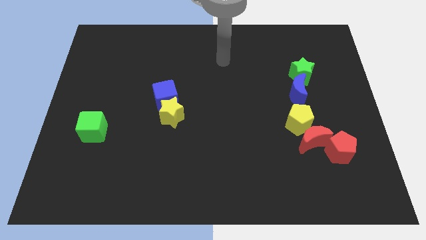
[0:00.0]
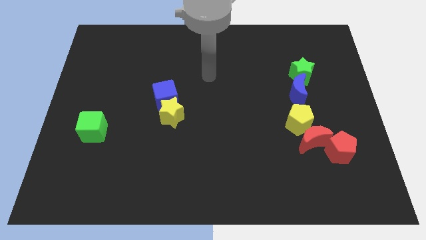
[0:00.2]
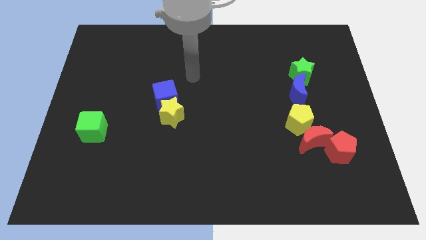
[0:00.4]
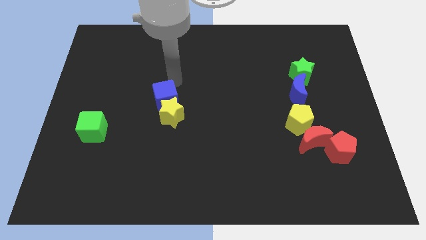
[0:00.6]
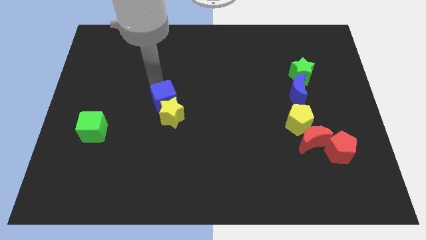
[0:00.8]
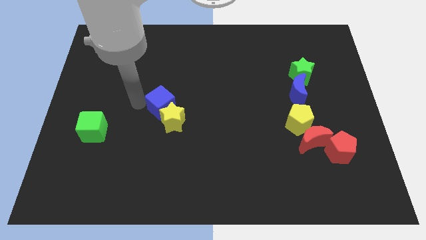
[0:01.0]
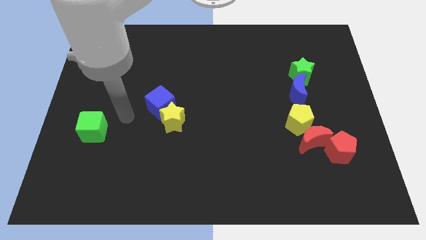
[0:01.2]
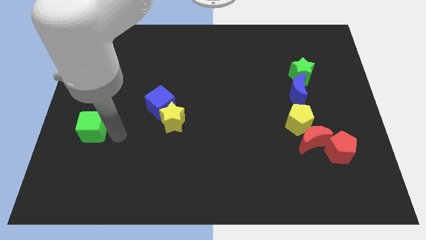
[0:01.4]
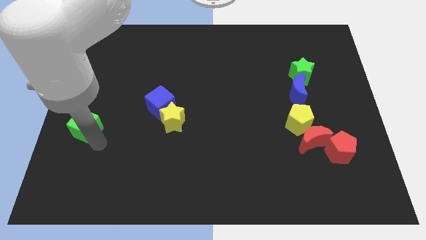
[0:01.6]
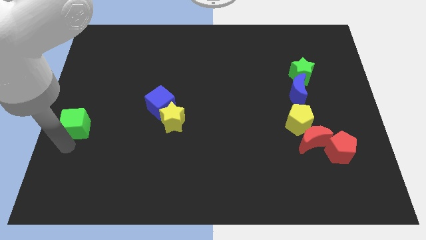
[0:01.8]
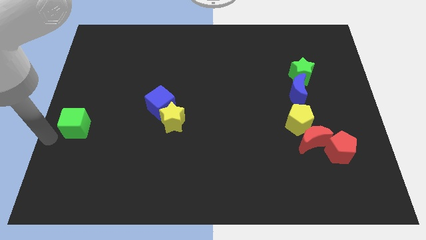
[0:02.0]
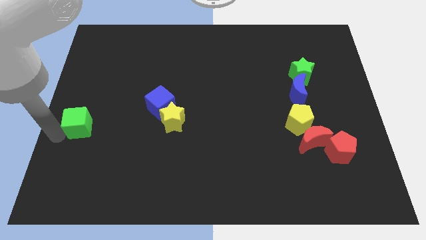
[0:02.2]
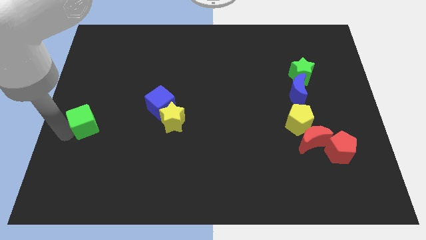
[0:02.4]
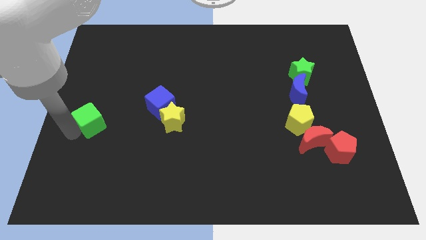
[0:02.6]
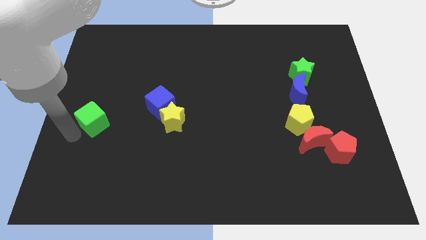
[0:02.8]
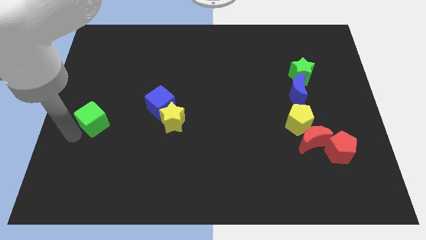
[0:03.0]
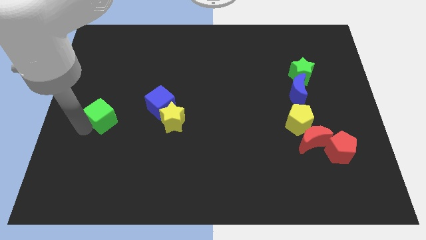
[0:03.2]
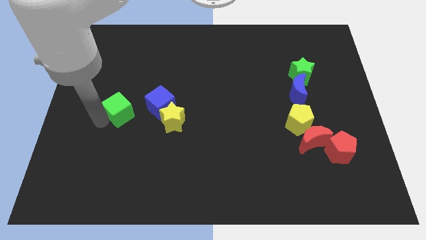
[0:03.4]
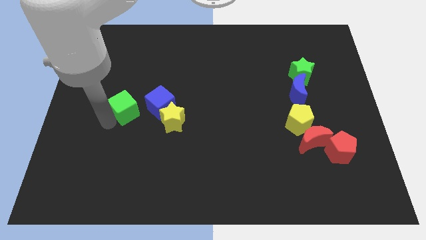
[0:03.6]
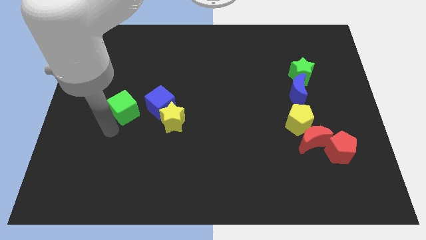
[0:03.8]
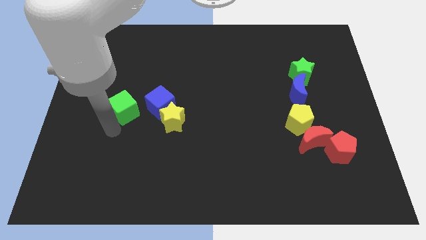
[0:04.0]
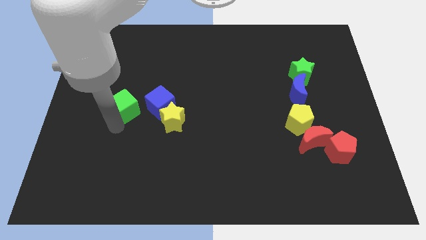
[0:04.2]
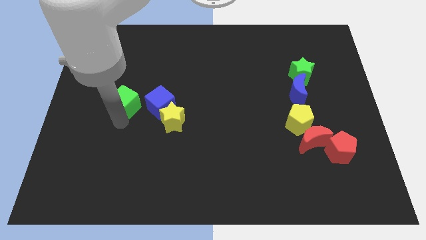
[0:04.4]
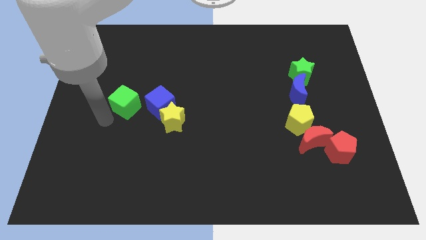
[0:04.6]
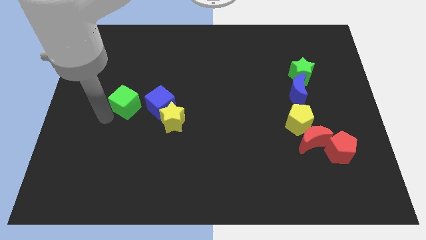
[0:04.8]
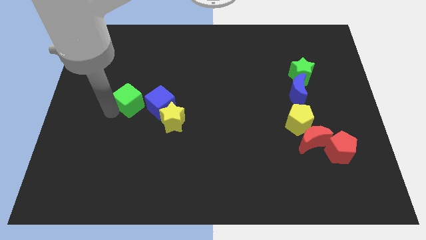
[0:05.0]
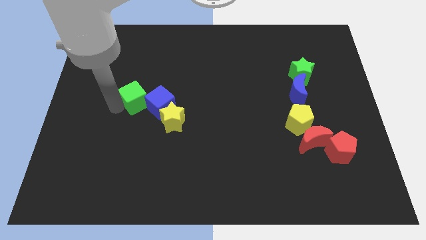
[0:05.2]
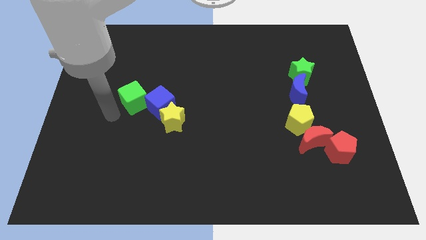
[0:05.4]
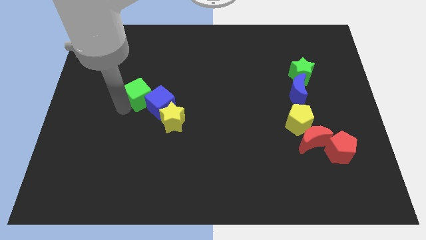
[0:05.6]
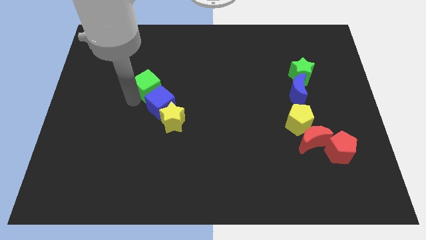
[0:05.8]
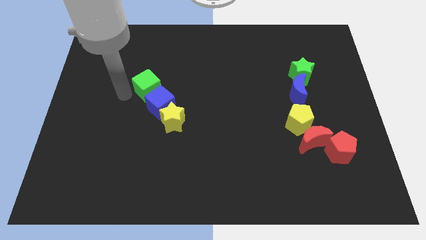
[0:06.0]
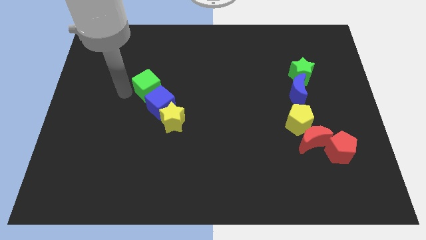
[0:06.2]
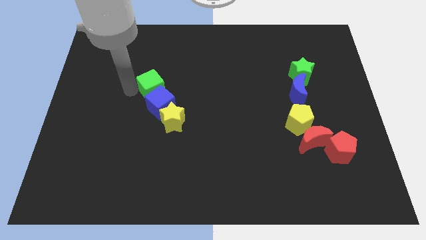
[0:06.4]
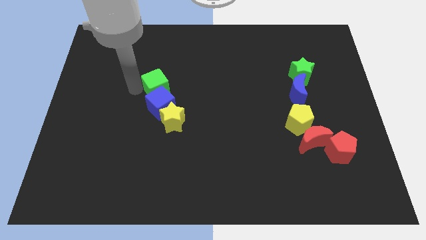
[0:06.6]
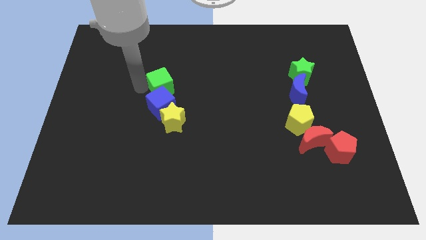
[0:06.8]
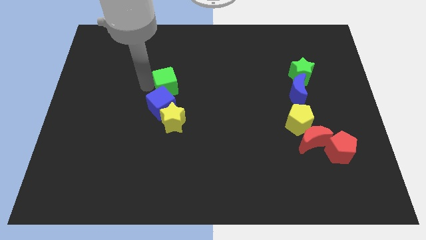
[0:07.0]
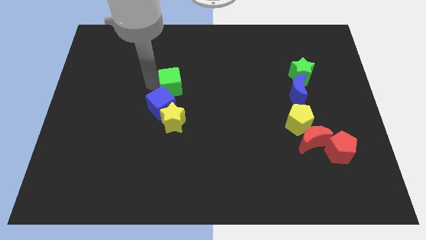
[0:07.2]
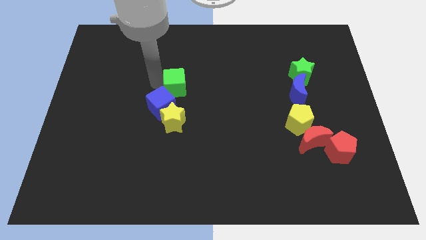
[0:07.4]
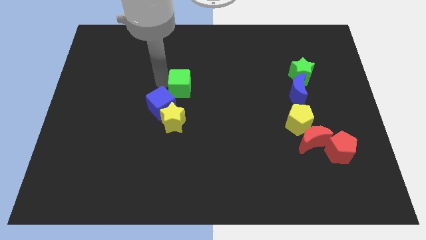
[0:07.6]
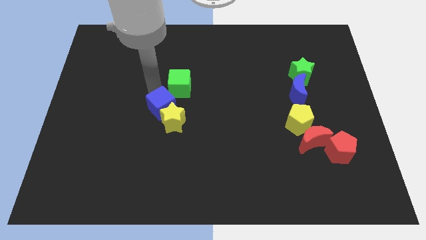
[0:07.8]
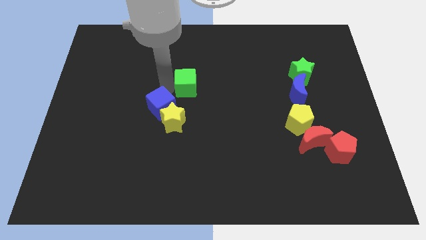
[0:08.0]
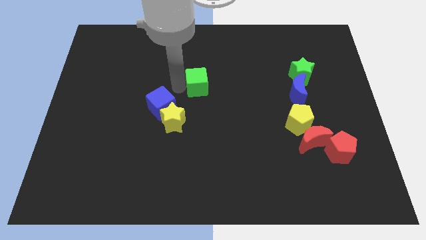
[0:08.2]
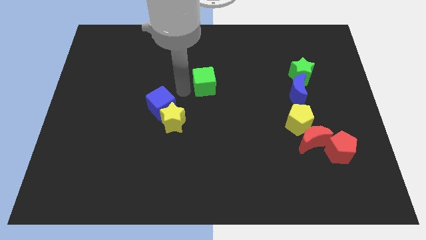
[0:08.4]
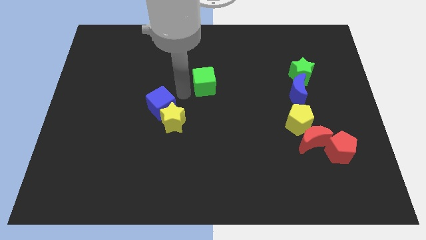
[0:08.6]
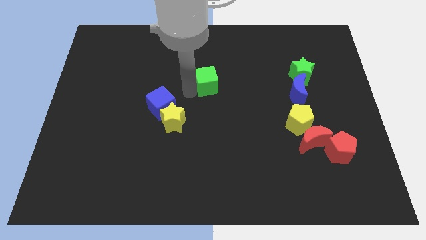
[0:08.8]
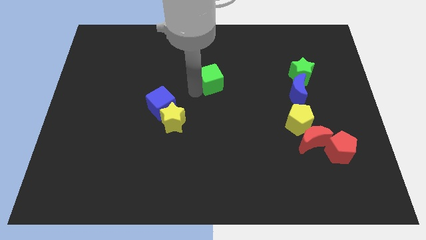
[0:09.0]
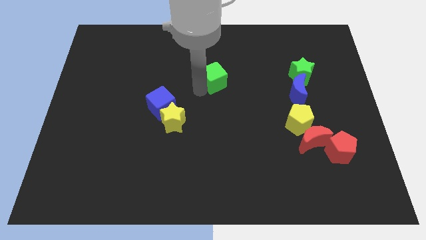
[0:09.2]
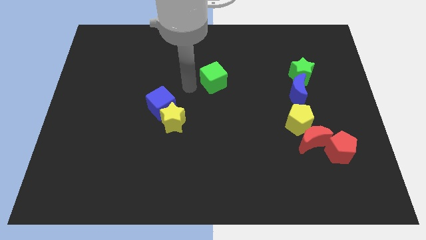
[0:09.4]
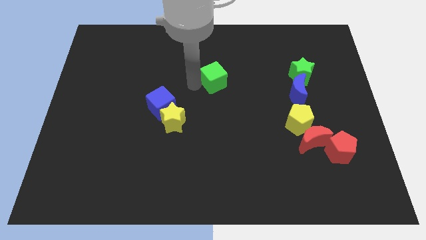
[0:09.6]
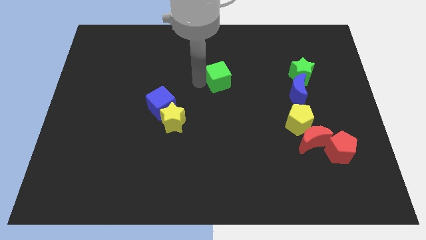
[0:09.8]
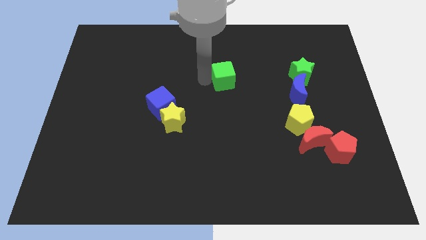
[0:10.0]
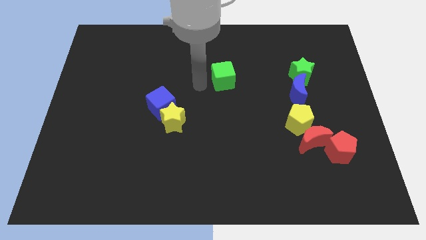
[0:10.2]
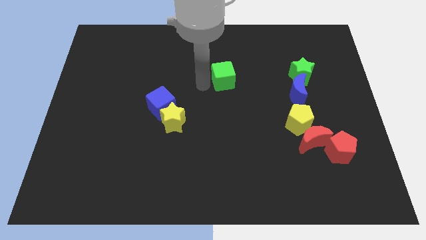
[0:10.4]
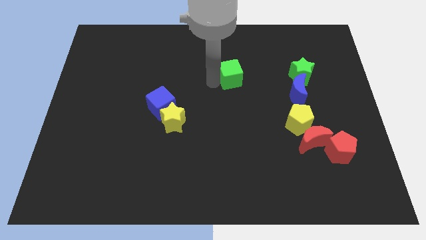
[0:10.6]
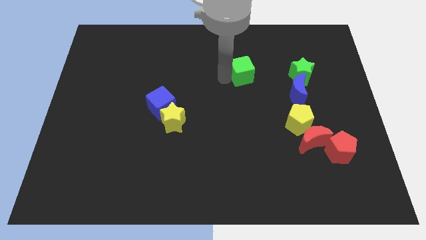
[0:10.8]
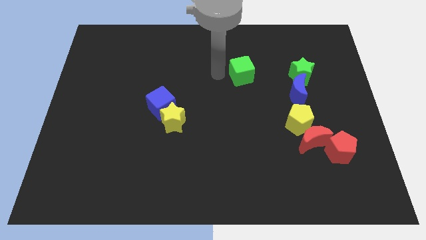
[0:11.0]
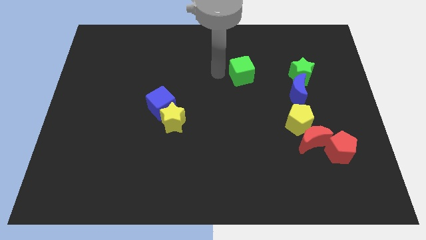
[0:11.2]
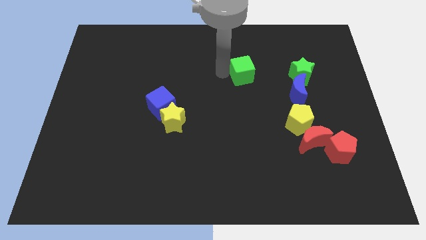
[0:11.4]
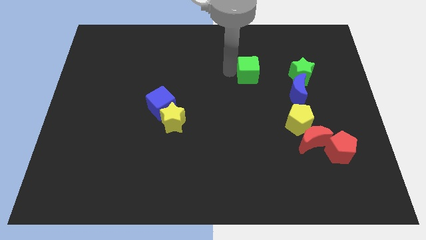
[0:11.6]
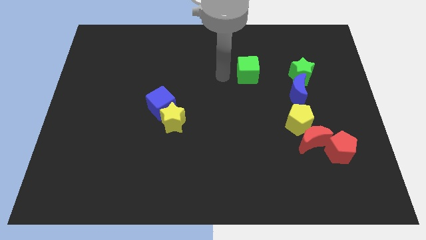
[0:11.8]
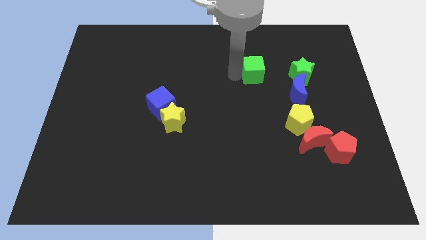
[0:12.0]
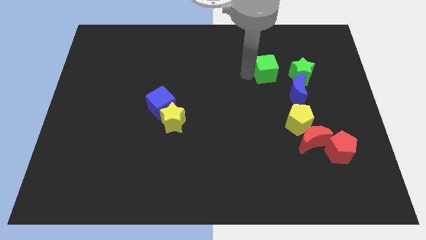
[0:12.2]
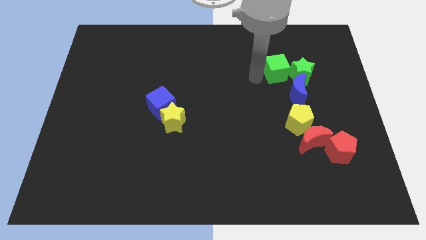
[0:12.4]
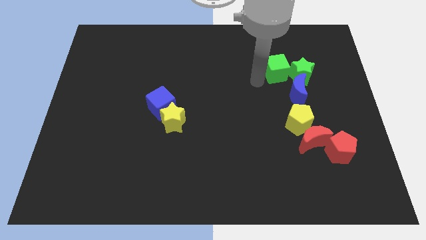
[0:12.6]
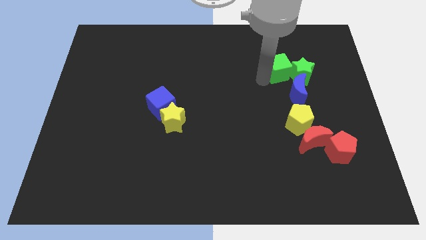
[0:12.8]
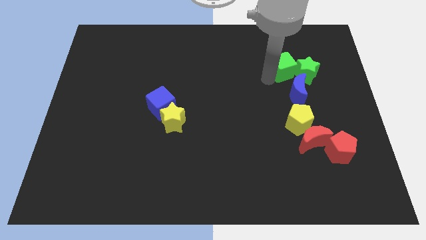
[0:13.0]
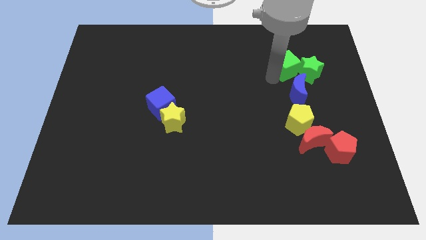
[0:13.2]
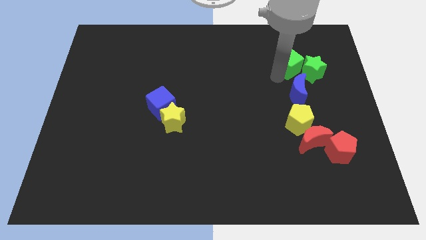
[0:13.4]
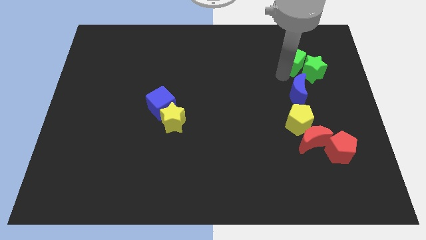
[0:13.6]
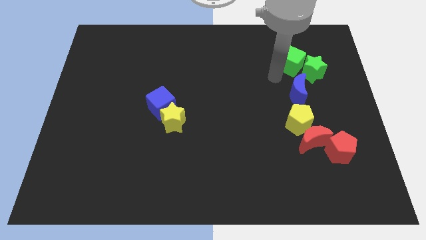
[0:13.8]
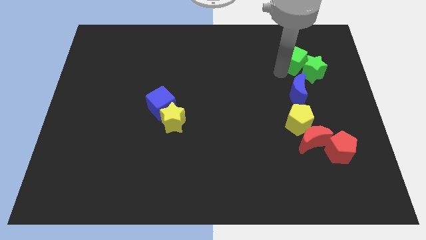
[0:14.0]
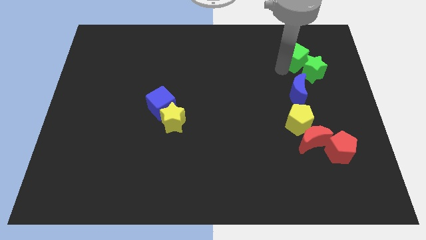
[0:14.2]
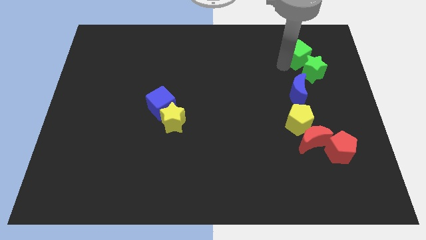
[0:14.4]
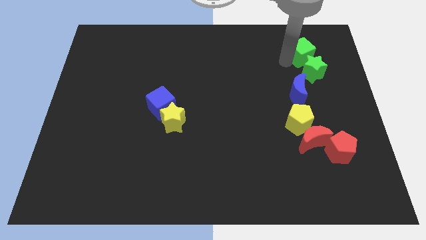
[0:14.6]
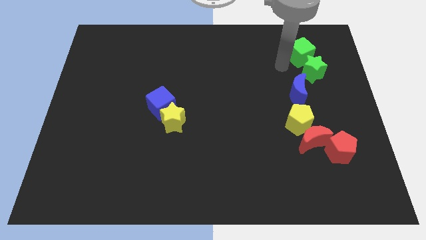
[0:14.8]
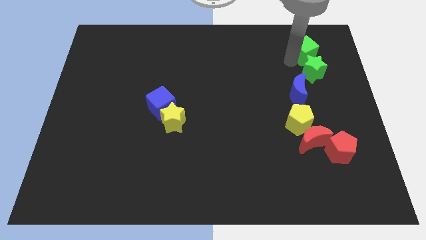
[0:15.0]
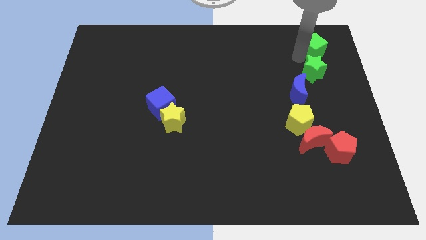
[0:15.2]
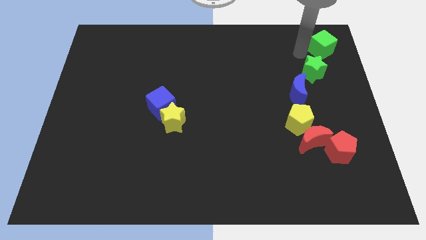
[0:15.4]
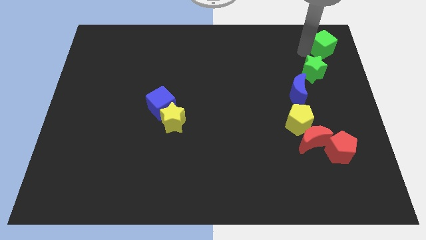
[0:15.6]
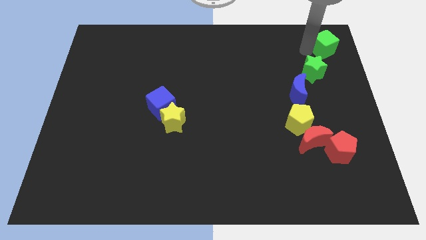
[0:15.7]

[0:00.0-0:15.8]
slide the green cube to the top right corner
